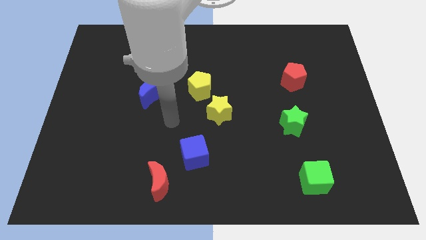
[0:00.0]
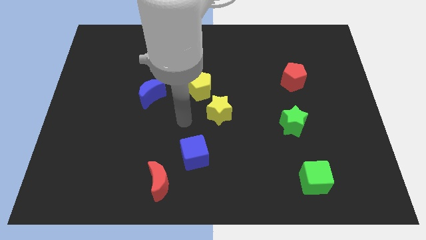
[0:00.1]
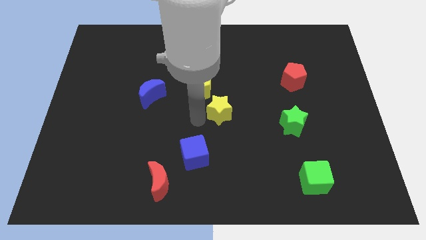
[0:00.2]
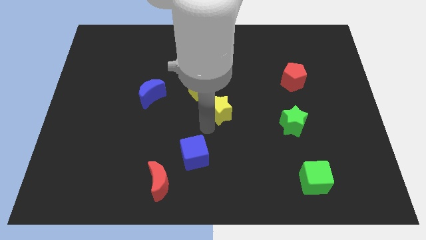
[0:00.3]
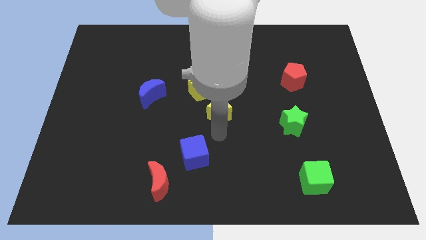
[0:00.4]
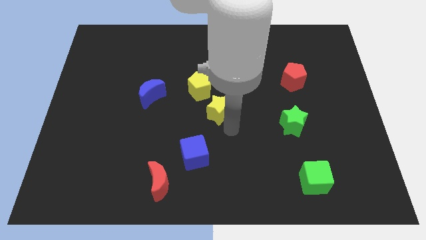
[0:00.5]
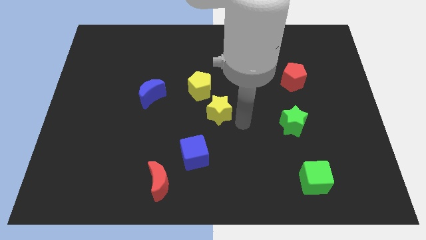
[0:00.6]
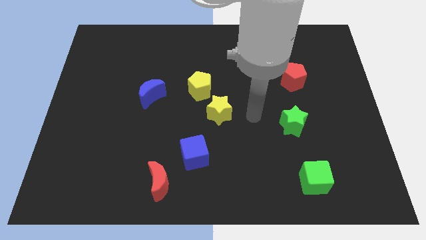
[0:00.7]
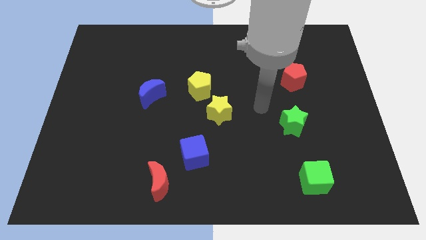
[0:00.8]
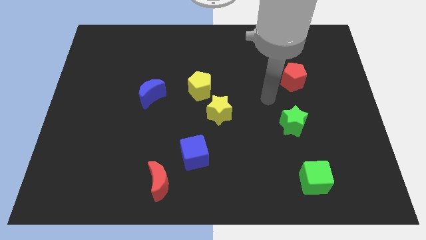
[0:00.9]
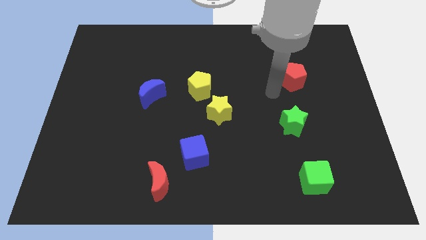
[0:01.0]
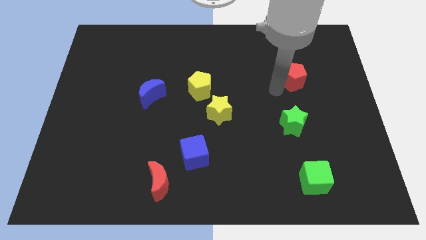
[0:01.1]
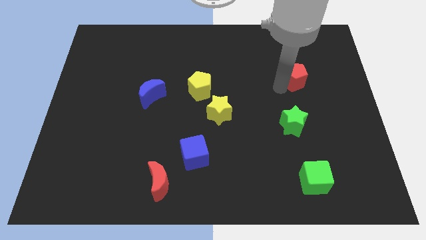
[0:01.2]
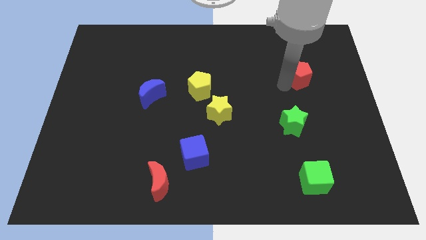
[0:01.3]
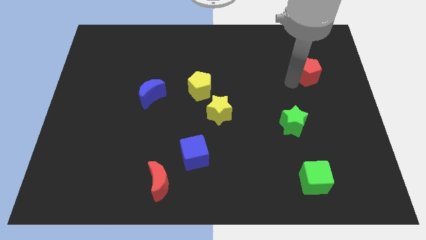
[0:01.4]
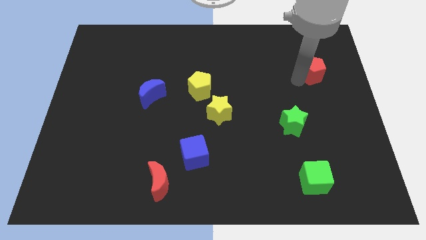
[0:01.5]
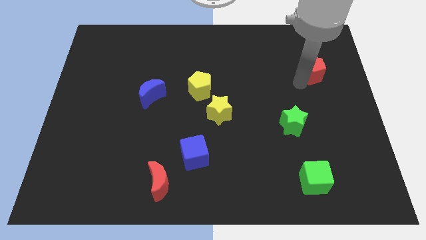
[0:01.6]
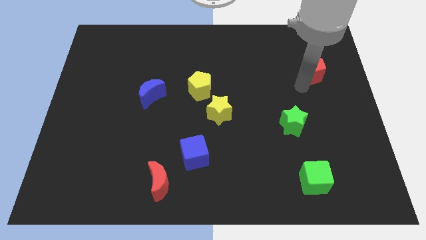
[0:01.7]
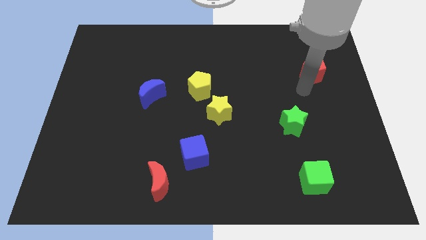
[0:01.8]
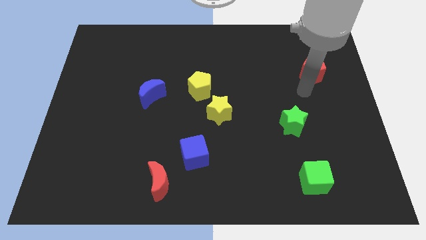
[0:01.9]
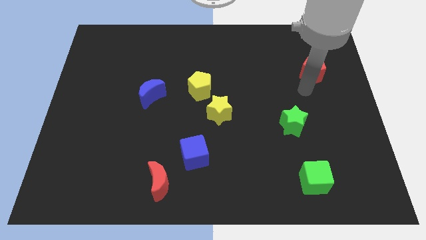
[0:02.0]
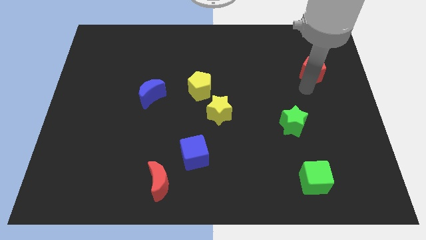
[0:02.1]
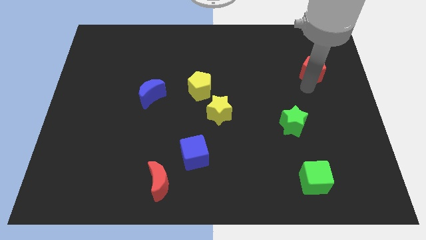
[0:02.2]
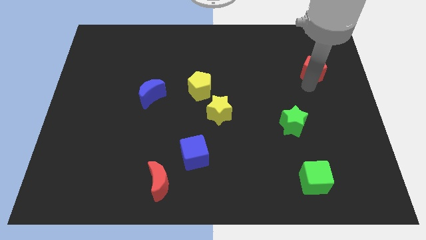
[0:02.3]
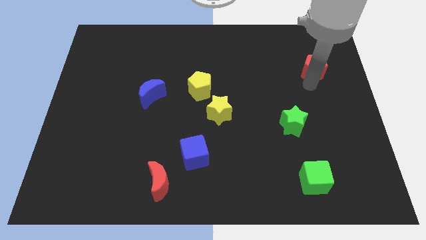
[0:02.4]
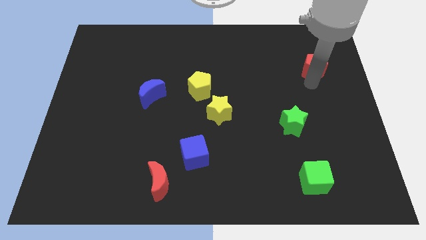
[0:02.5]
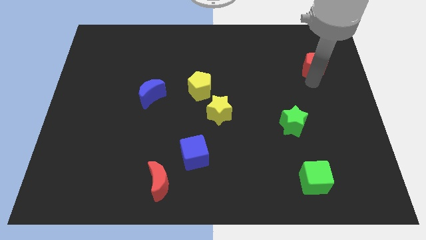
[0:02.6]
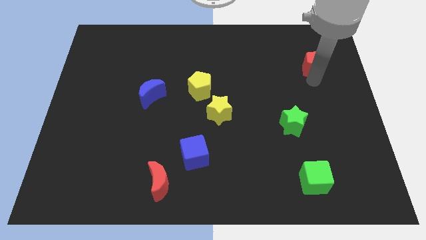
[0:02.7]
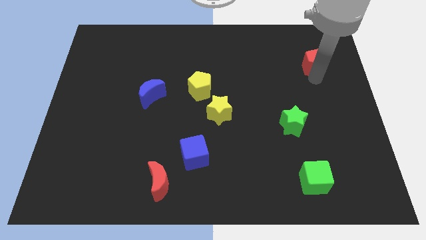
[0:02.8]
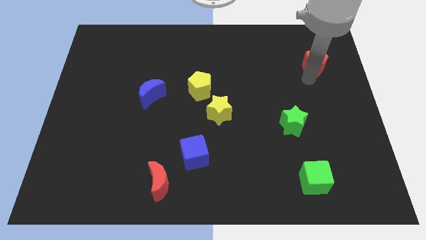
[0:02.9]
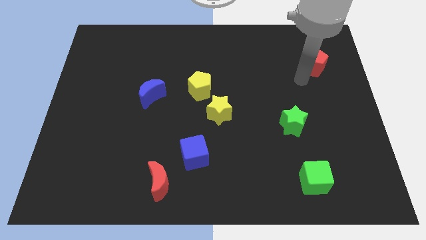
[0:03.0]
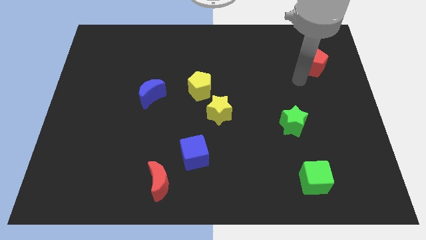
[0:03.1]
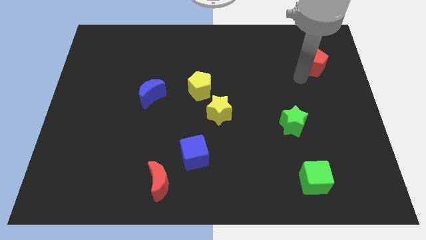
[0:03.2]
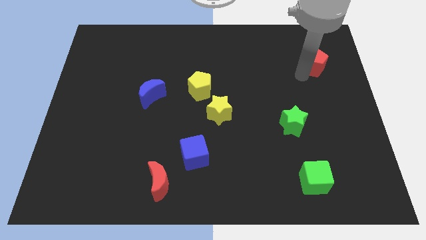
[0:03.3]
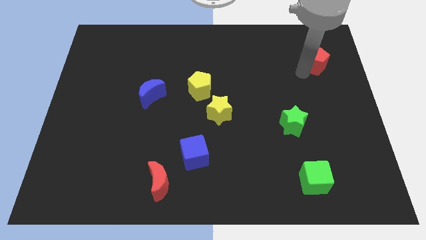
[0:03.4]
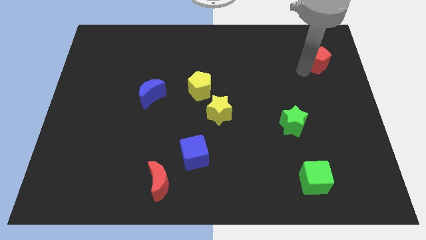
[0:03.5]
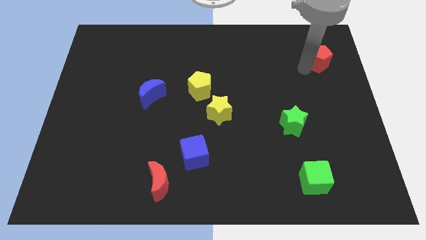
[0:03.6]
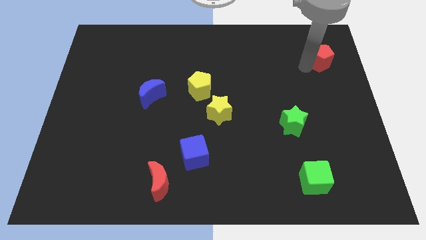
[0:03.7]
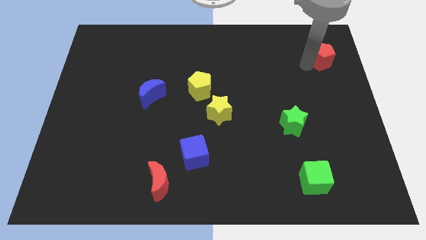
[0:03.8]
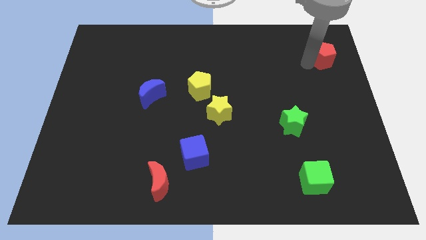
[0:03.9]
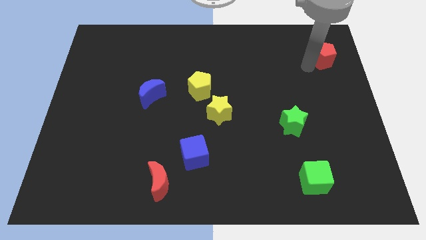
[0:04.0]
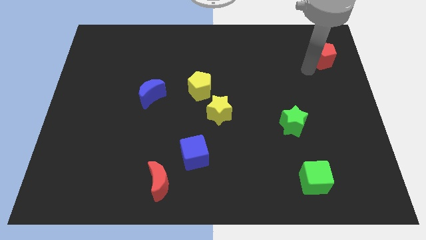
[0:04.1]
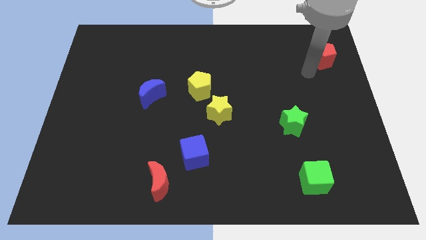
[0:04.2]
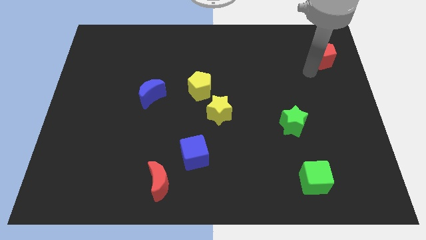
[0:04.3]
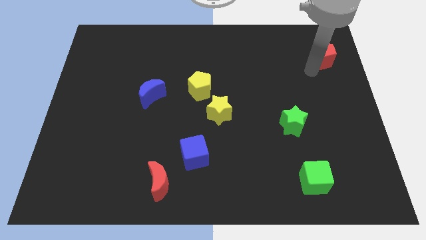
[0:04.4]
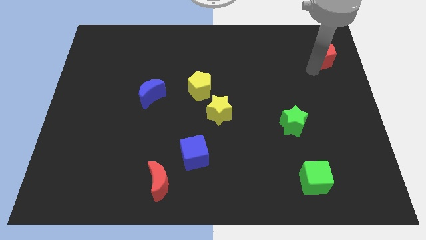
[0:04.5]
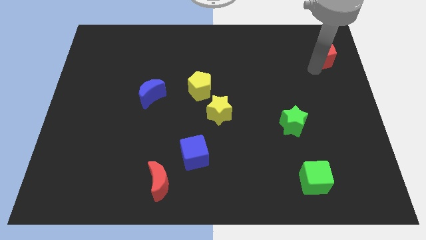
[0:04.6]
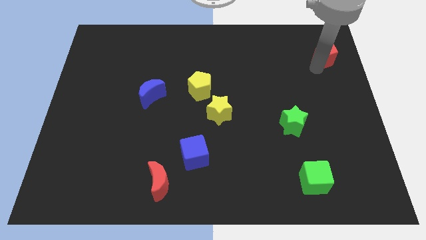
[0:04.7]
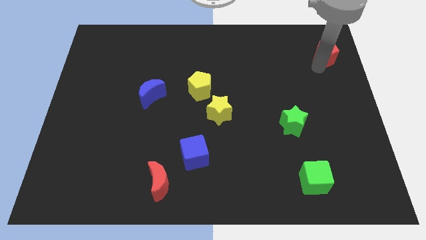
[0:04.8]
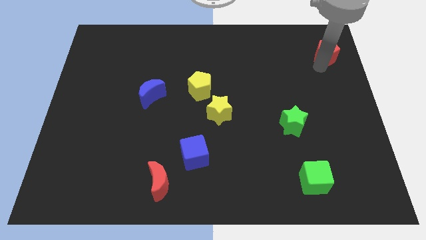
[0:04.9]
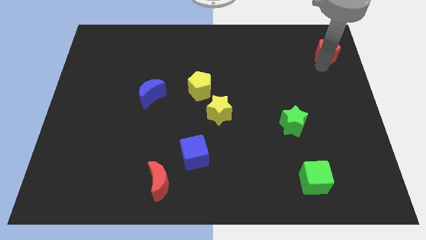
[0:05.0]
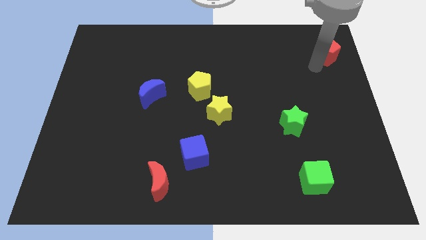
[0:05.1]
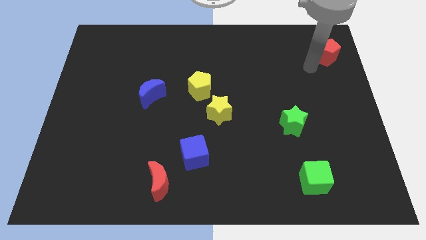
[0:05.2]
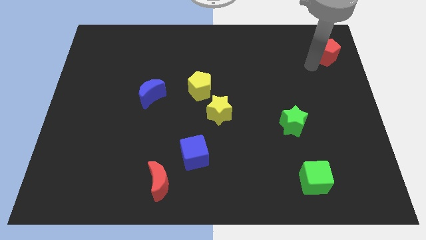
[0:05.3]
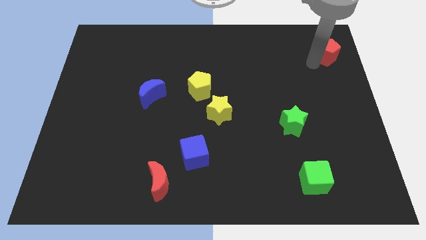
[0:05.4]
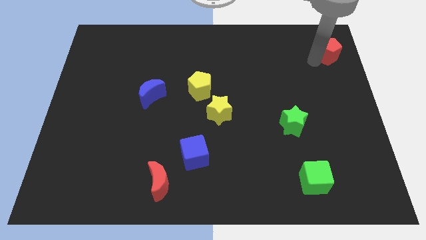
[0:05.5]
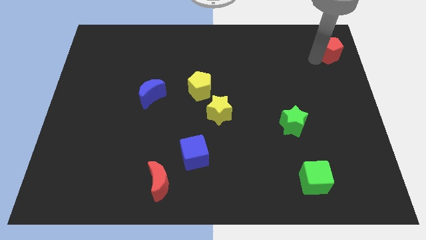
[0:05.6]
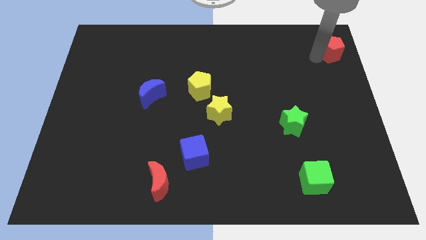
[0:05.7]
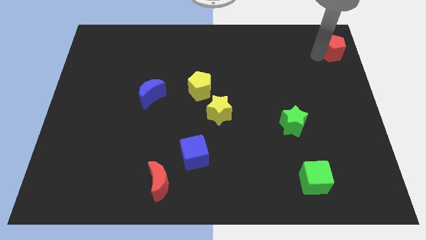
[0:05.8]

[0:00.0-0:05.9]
put the red pentagon to the top right
